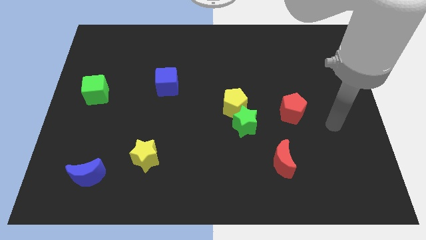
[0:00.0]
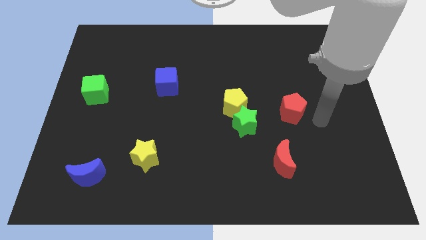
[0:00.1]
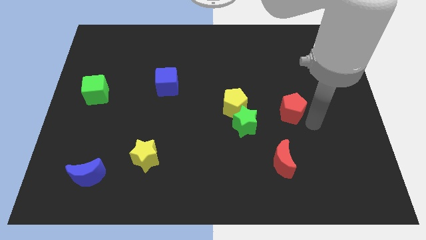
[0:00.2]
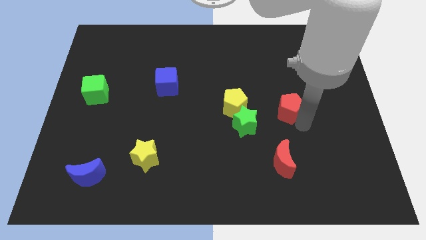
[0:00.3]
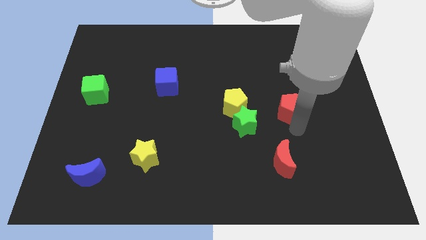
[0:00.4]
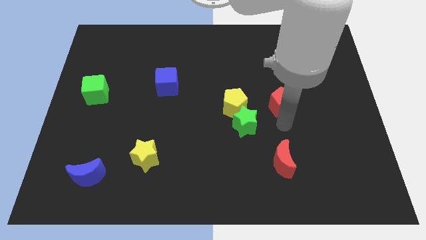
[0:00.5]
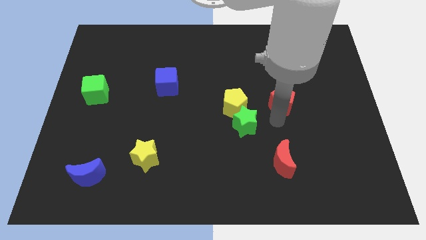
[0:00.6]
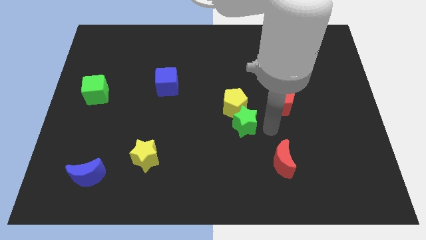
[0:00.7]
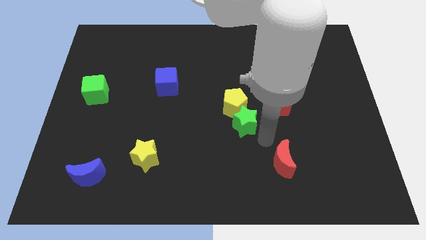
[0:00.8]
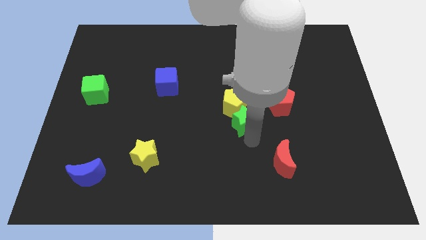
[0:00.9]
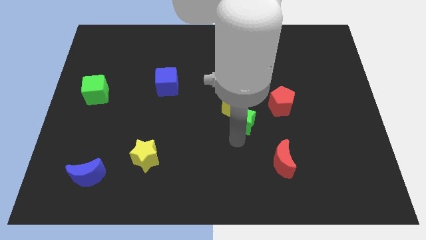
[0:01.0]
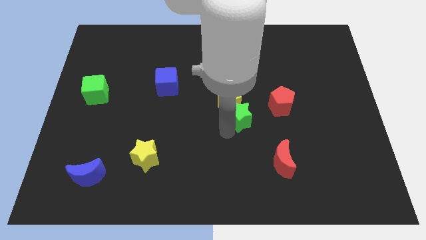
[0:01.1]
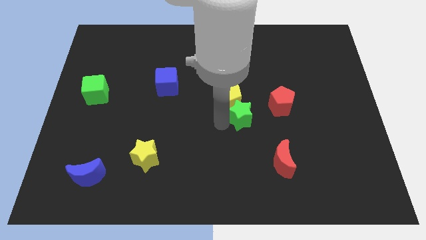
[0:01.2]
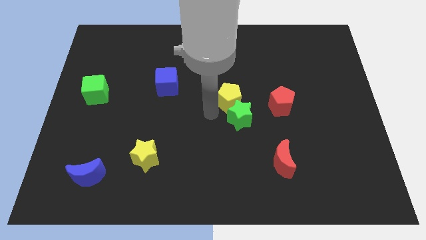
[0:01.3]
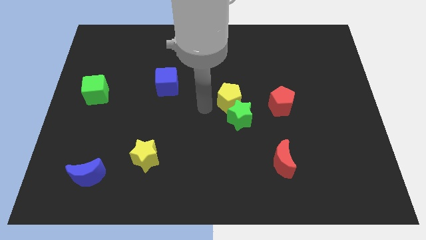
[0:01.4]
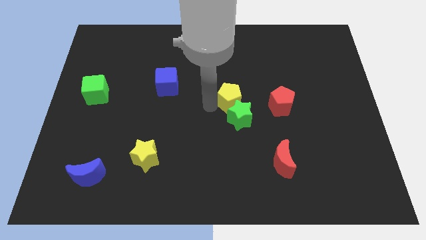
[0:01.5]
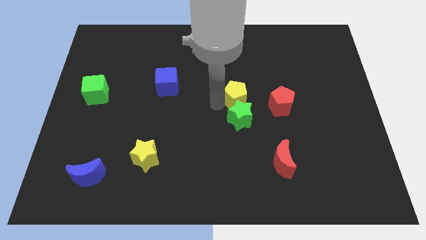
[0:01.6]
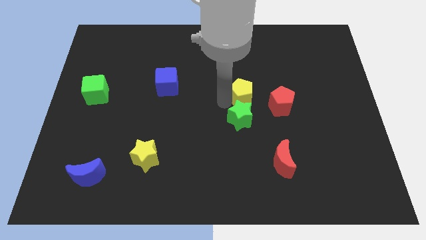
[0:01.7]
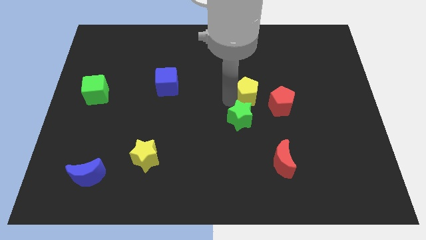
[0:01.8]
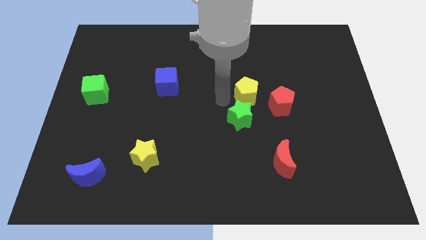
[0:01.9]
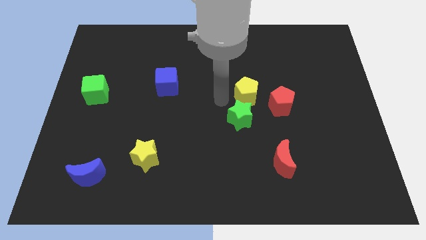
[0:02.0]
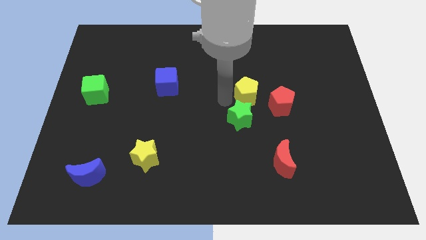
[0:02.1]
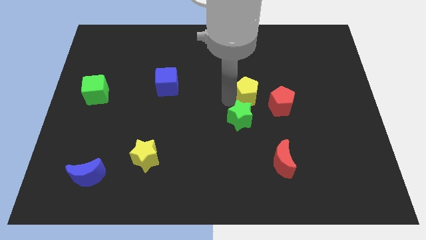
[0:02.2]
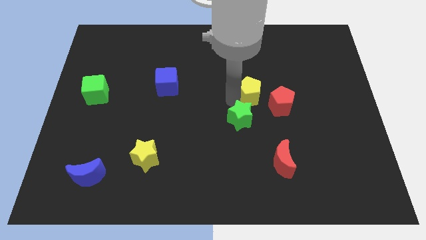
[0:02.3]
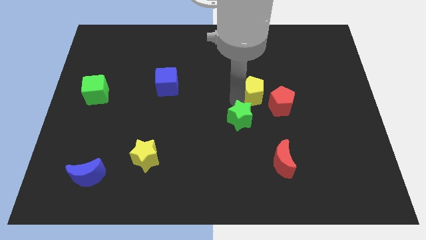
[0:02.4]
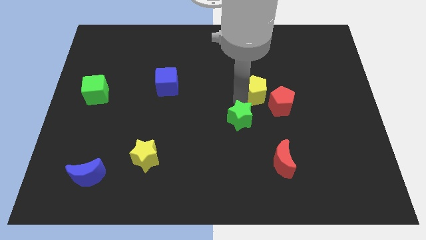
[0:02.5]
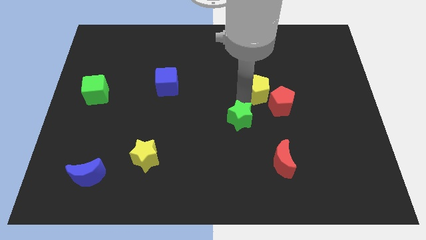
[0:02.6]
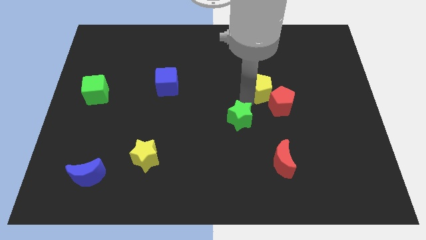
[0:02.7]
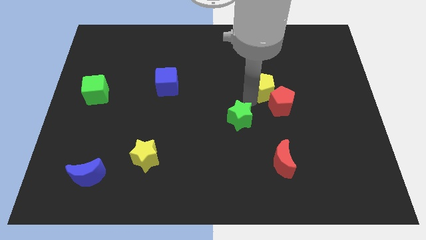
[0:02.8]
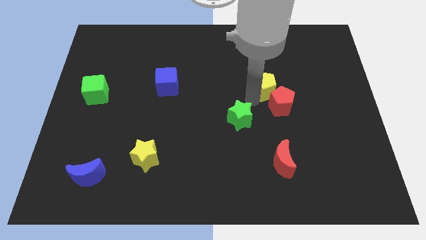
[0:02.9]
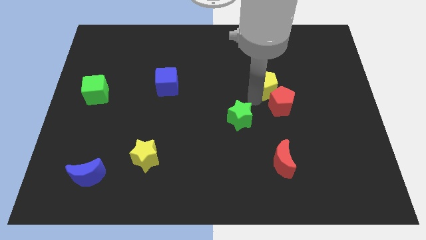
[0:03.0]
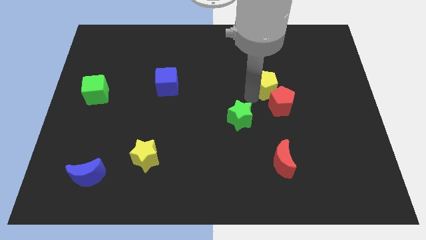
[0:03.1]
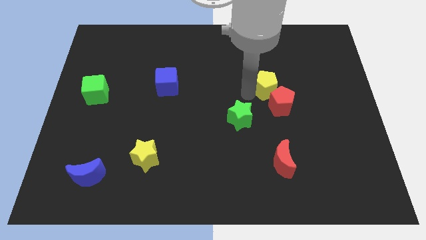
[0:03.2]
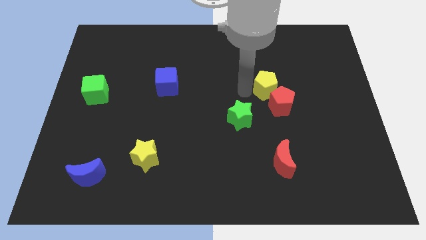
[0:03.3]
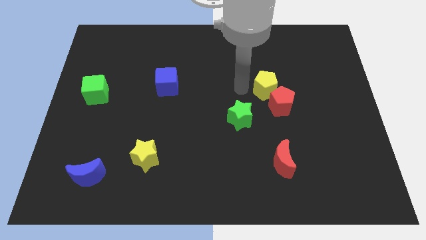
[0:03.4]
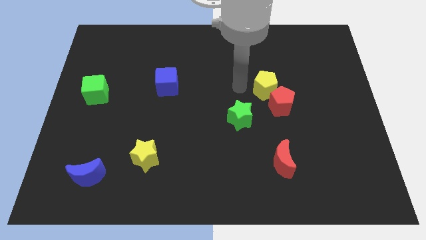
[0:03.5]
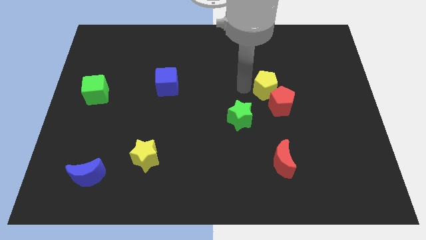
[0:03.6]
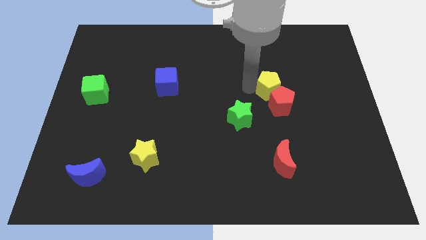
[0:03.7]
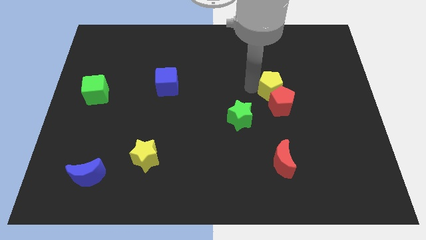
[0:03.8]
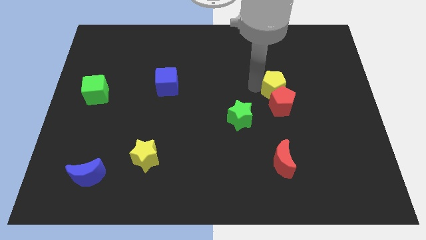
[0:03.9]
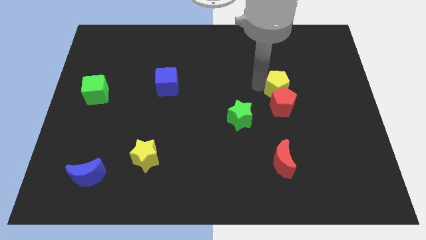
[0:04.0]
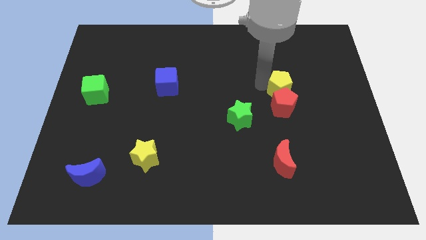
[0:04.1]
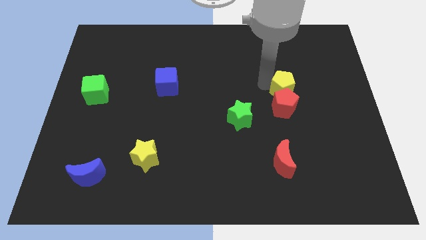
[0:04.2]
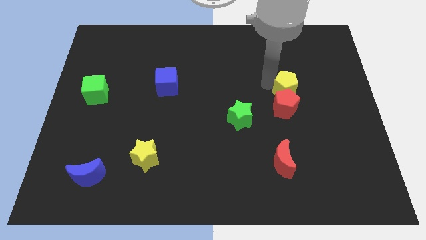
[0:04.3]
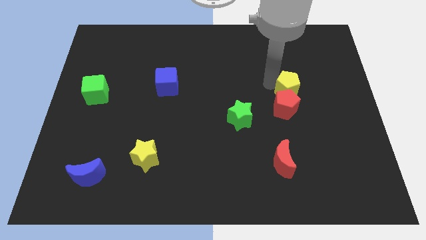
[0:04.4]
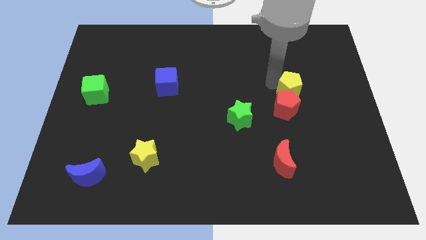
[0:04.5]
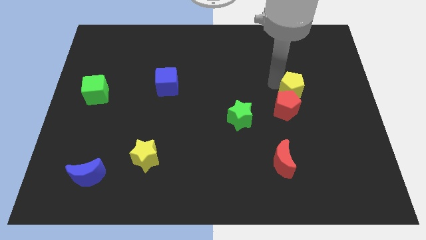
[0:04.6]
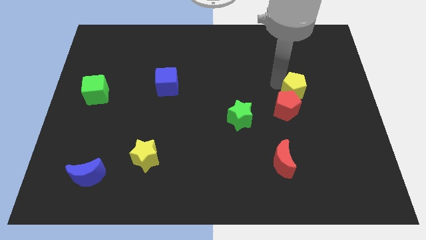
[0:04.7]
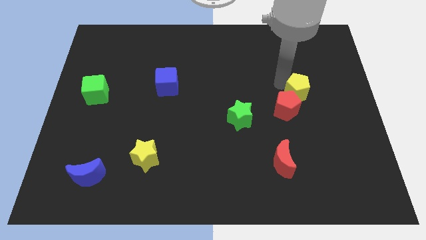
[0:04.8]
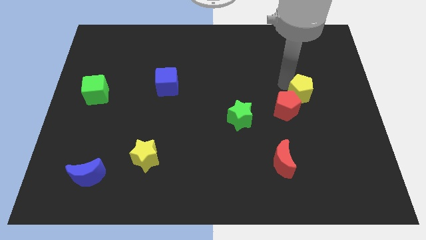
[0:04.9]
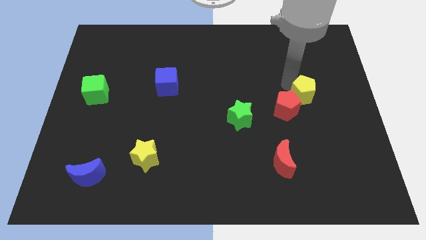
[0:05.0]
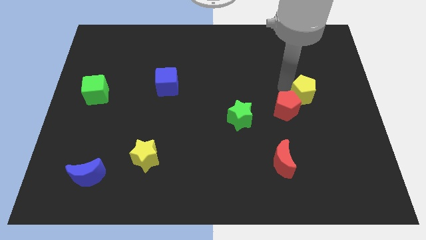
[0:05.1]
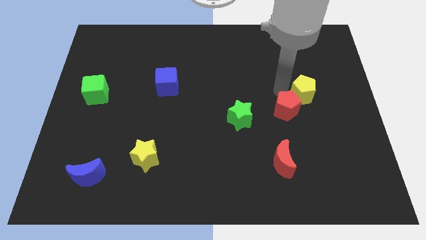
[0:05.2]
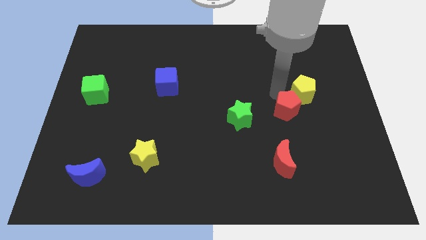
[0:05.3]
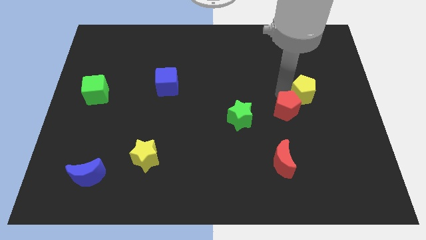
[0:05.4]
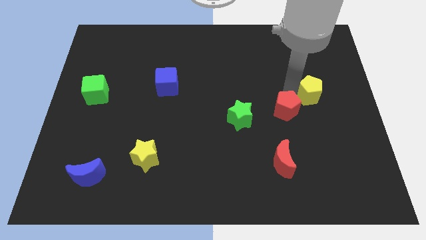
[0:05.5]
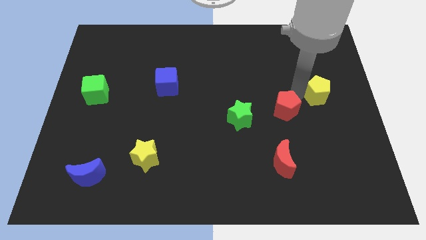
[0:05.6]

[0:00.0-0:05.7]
move the yellow pentagon to the center right

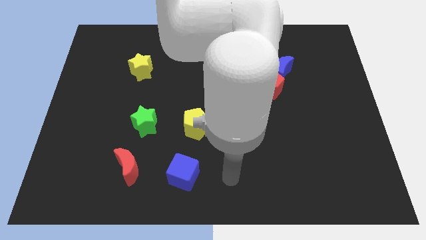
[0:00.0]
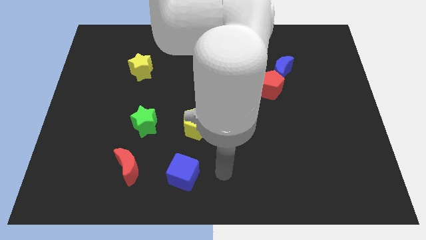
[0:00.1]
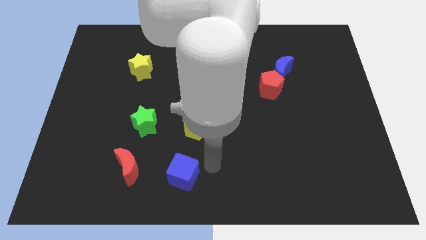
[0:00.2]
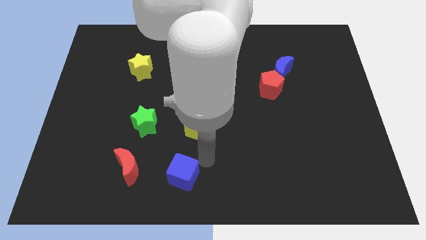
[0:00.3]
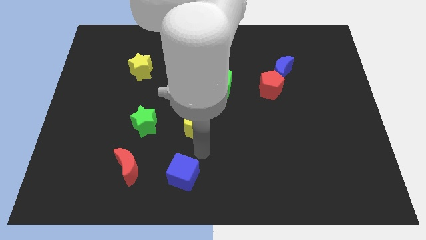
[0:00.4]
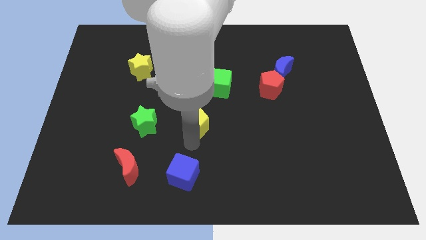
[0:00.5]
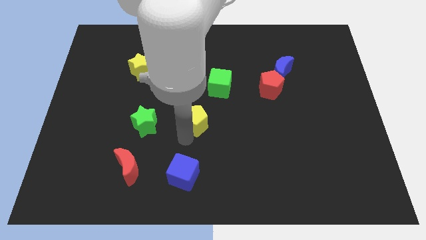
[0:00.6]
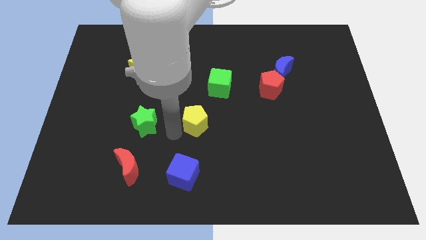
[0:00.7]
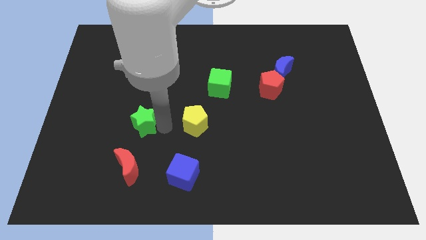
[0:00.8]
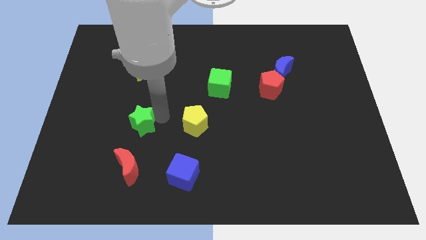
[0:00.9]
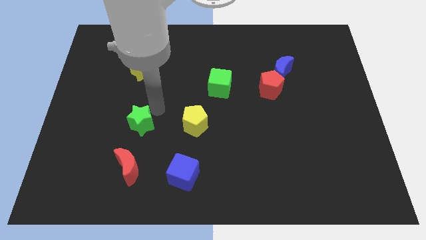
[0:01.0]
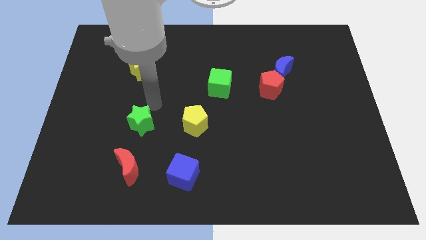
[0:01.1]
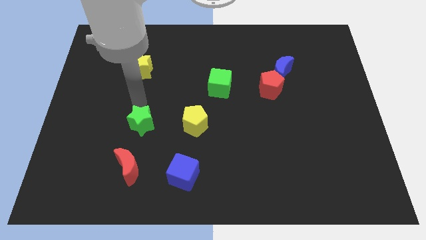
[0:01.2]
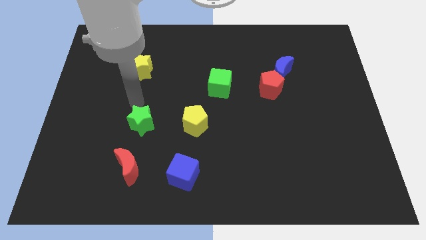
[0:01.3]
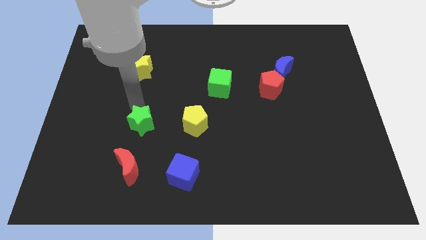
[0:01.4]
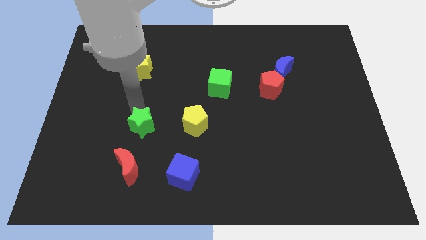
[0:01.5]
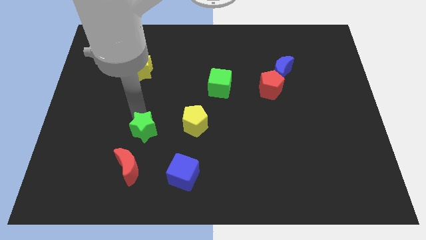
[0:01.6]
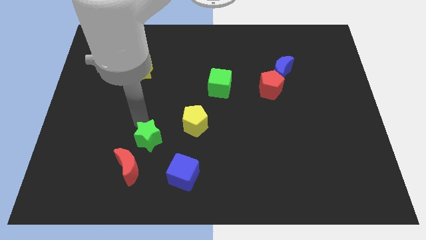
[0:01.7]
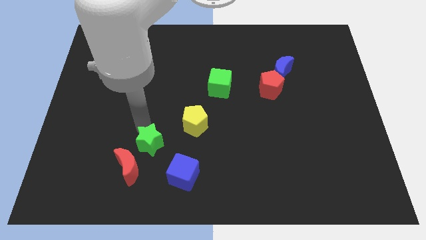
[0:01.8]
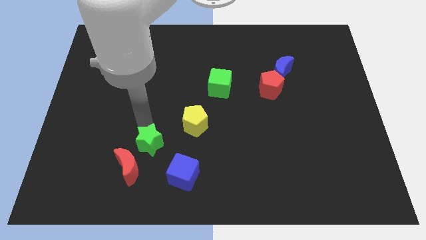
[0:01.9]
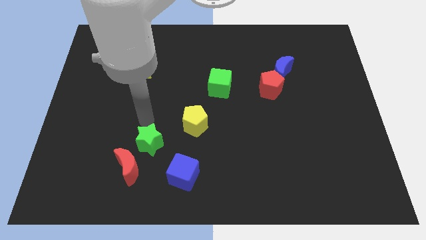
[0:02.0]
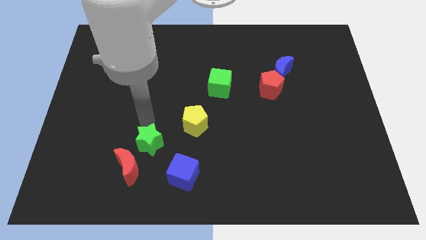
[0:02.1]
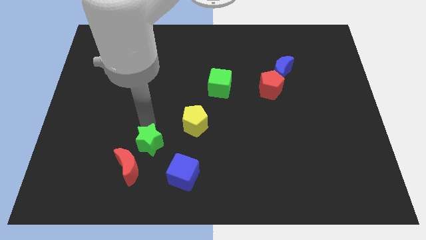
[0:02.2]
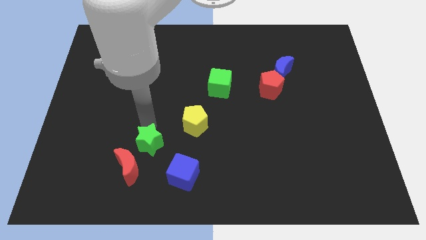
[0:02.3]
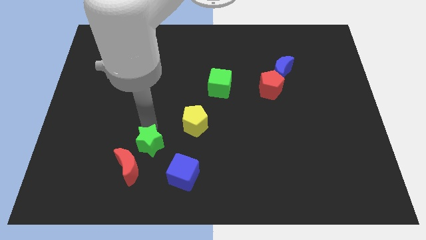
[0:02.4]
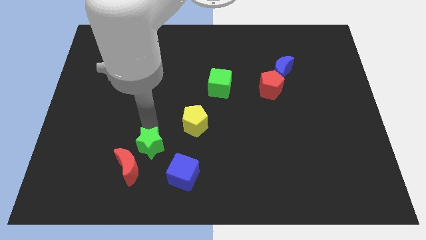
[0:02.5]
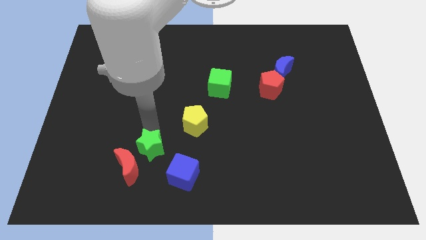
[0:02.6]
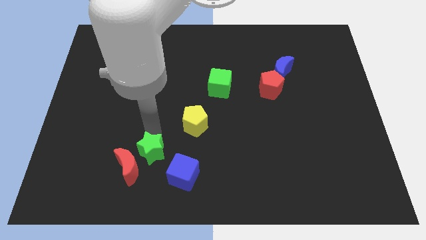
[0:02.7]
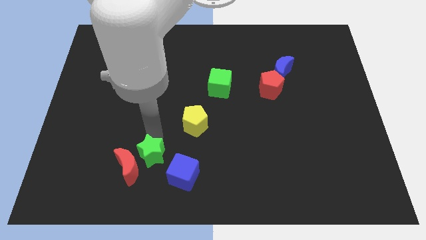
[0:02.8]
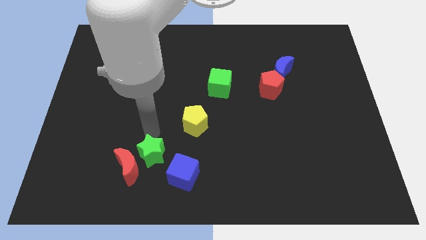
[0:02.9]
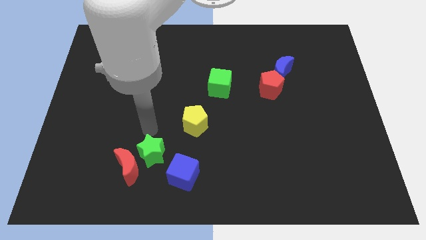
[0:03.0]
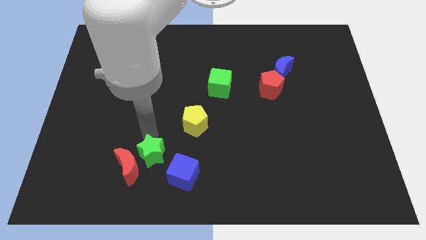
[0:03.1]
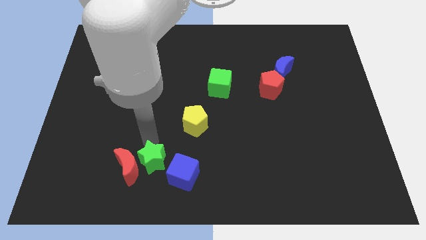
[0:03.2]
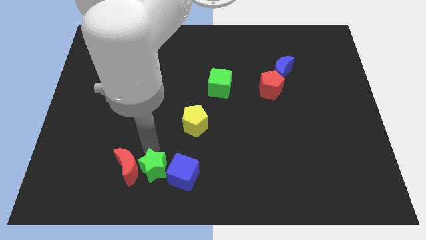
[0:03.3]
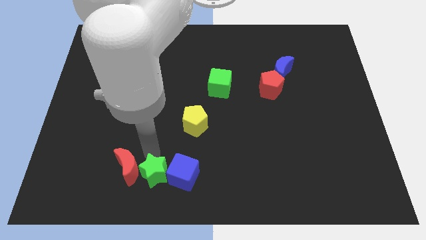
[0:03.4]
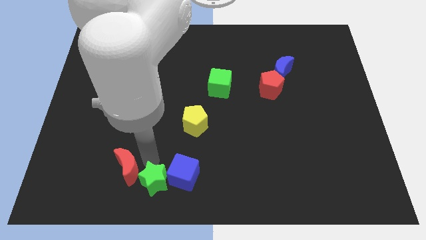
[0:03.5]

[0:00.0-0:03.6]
put the green star to the bottom
